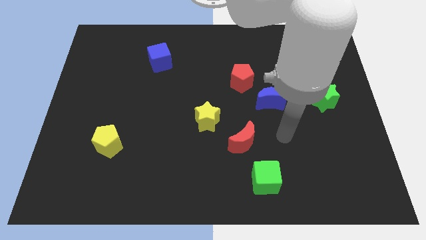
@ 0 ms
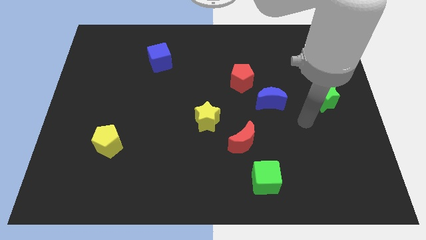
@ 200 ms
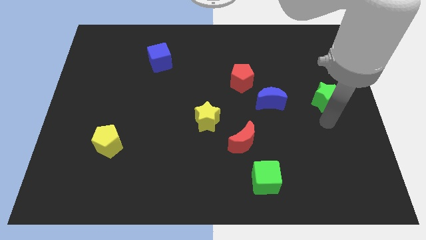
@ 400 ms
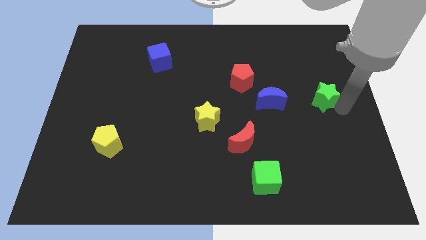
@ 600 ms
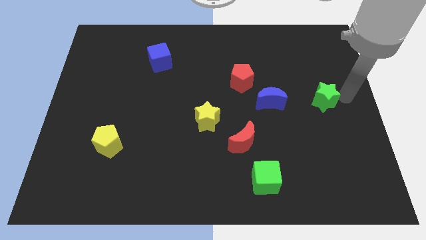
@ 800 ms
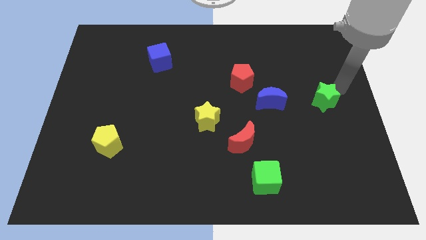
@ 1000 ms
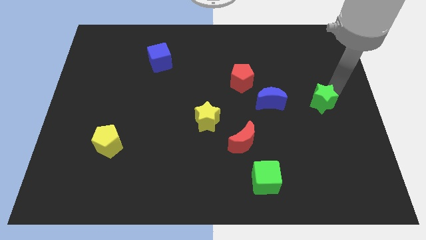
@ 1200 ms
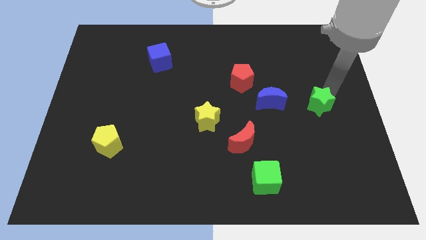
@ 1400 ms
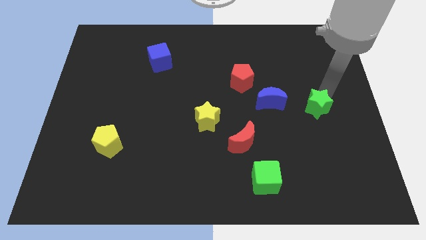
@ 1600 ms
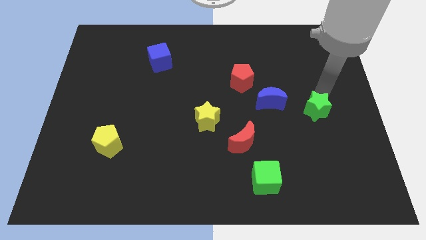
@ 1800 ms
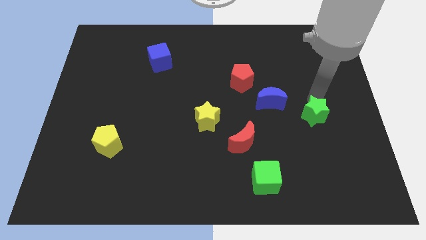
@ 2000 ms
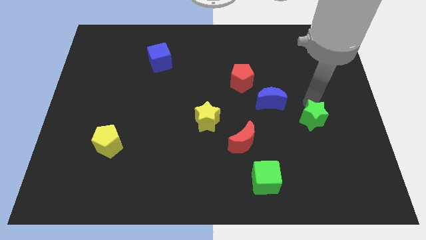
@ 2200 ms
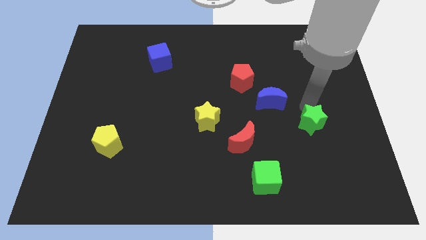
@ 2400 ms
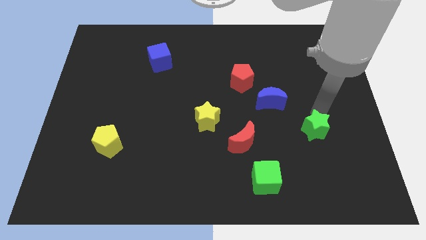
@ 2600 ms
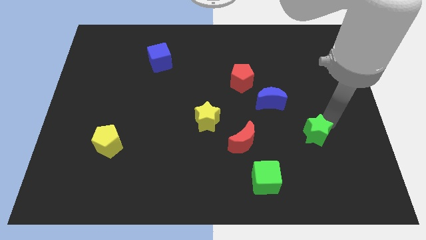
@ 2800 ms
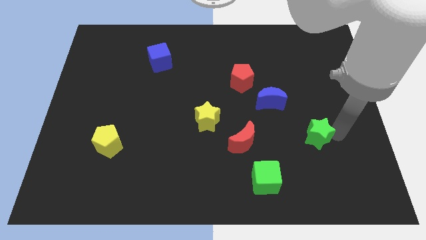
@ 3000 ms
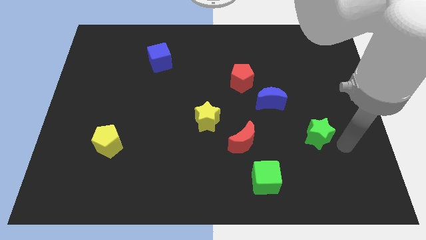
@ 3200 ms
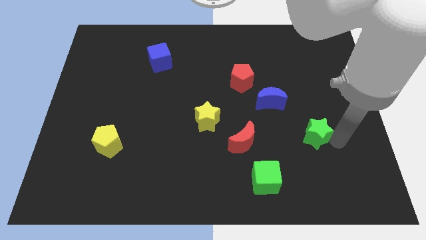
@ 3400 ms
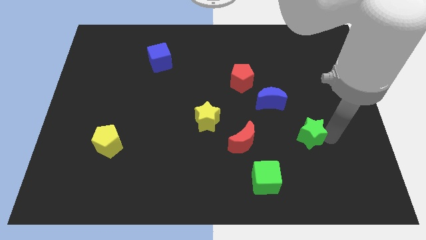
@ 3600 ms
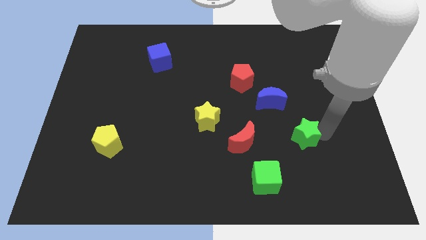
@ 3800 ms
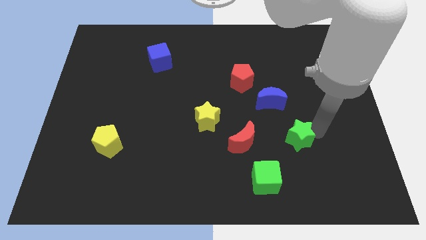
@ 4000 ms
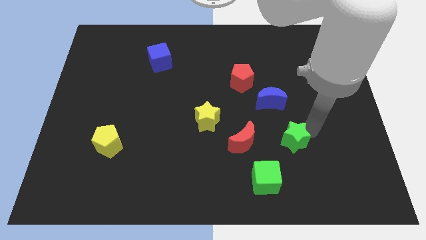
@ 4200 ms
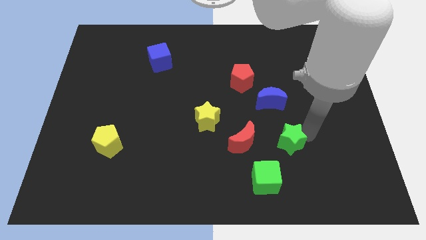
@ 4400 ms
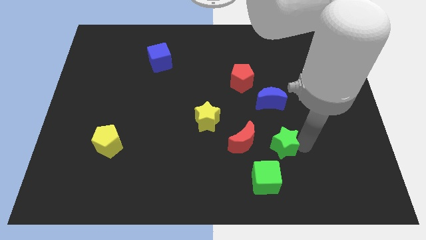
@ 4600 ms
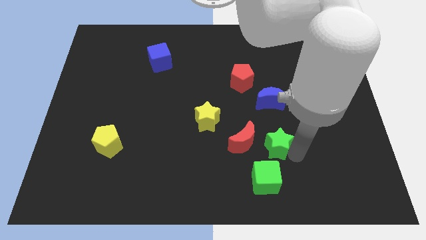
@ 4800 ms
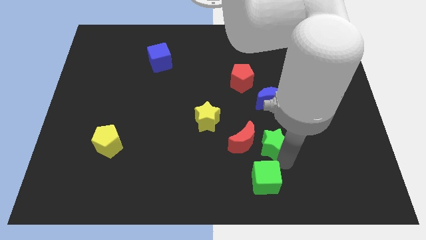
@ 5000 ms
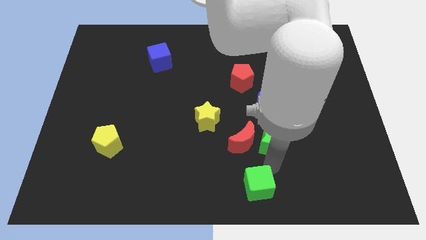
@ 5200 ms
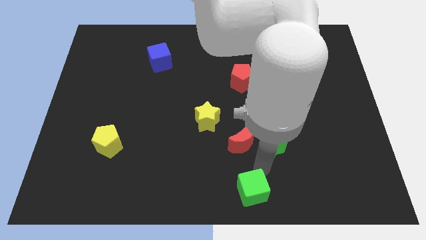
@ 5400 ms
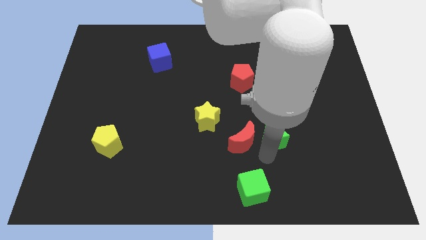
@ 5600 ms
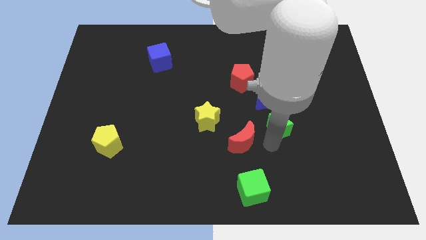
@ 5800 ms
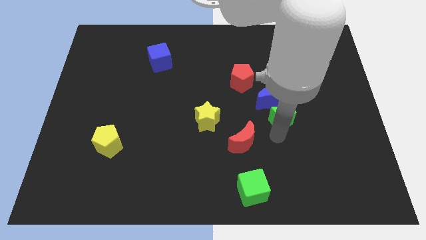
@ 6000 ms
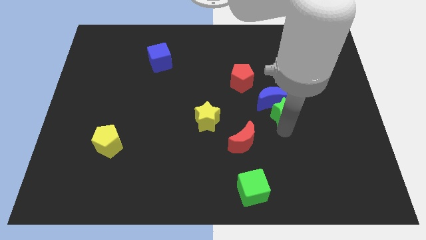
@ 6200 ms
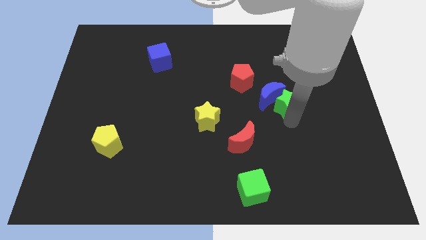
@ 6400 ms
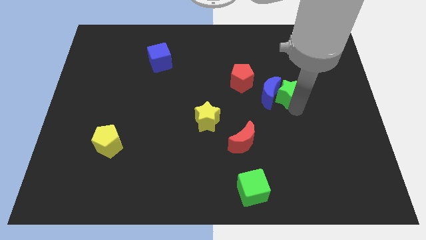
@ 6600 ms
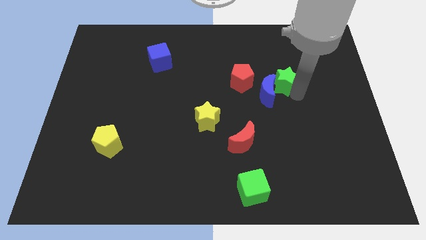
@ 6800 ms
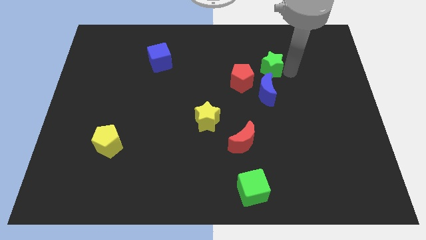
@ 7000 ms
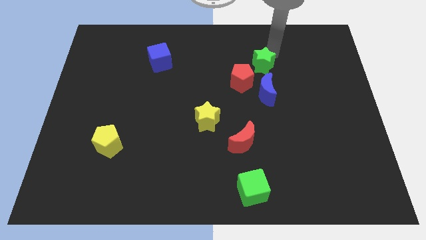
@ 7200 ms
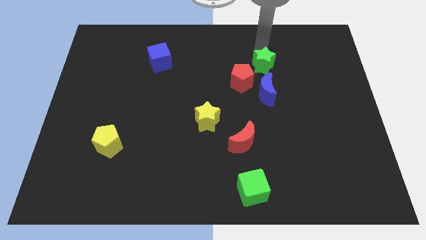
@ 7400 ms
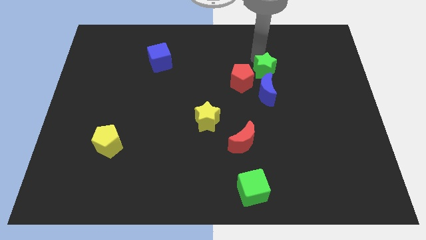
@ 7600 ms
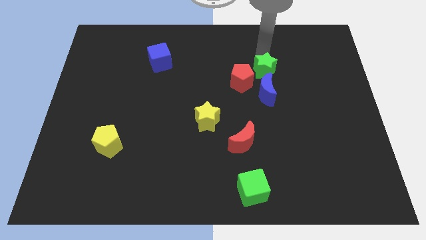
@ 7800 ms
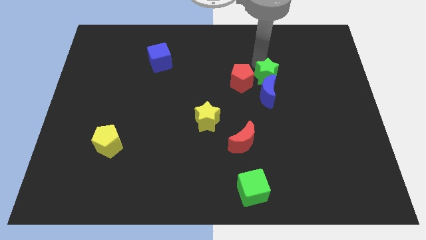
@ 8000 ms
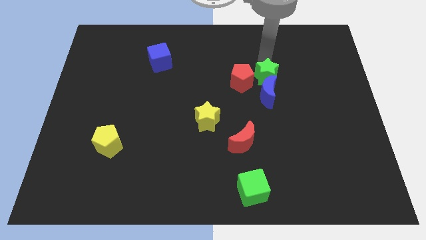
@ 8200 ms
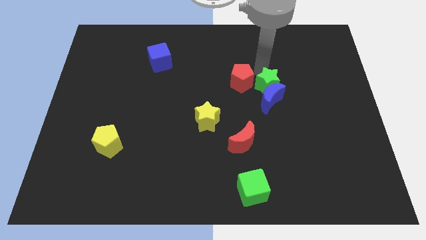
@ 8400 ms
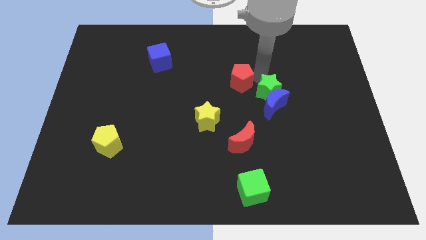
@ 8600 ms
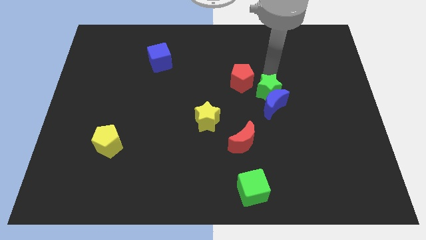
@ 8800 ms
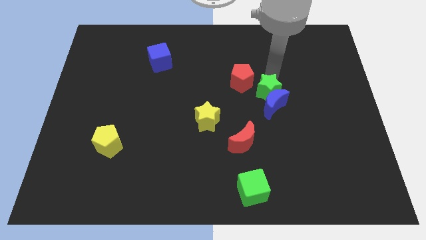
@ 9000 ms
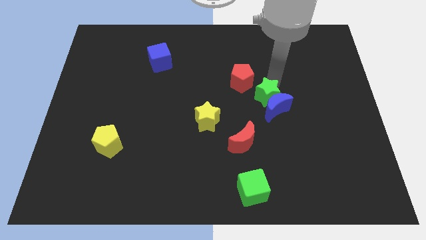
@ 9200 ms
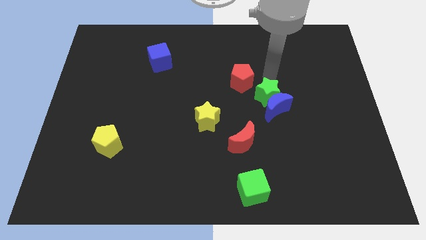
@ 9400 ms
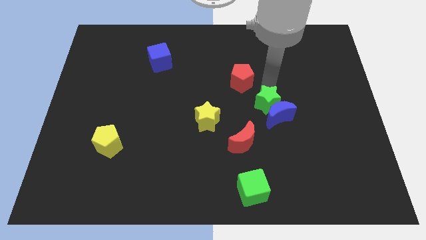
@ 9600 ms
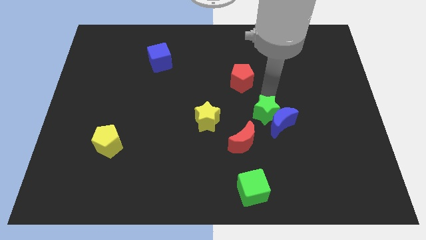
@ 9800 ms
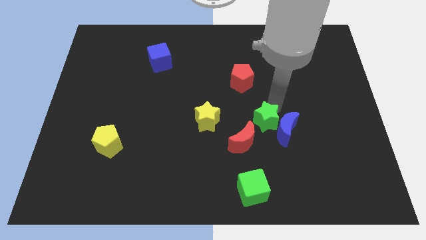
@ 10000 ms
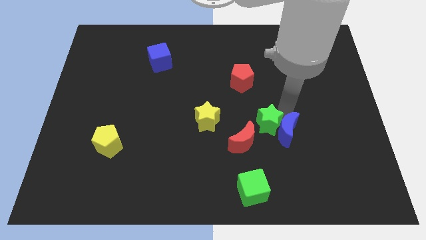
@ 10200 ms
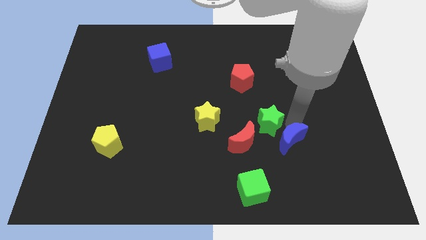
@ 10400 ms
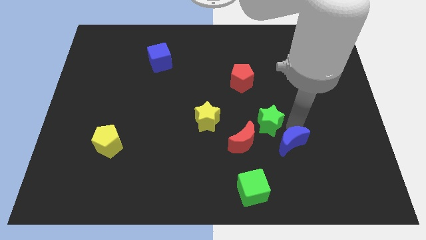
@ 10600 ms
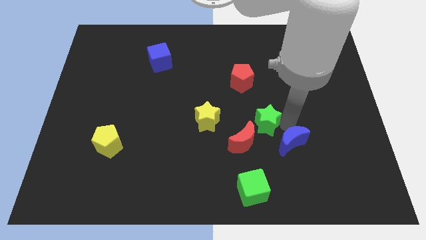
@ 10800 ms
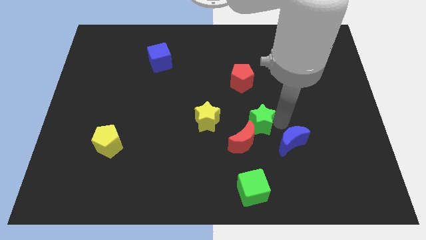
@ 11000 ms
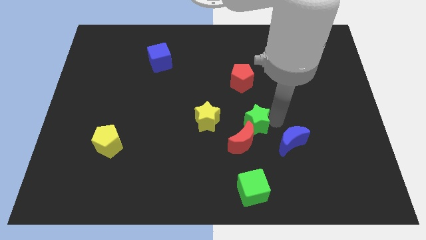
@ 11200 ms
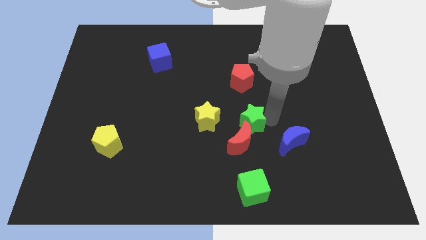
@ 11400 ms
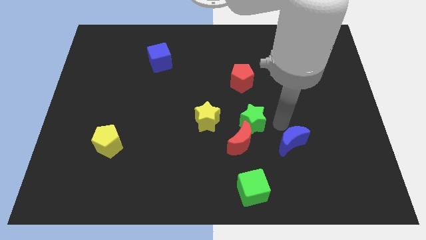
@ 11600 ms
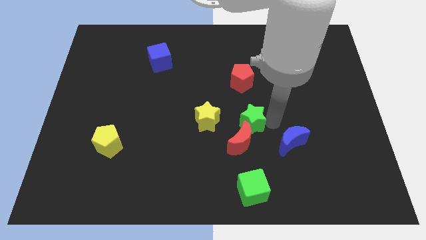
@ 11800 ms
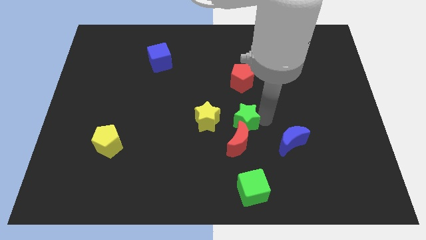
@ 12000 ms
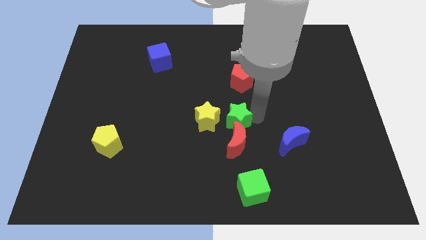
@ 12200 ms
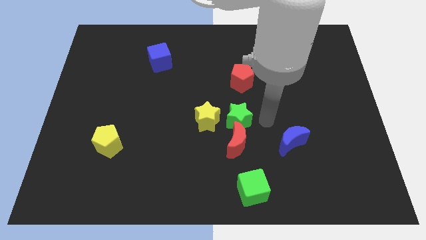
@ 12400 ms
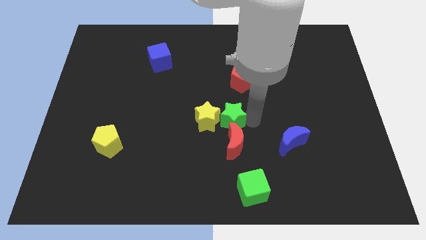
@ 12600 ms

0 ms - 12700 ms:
slide the green star close to the yellow star

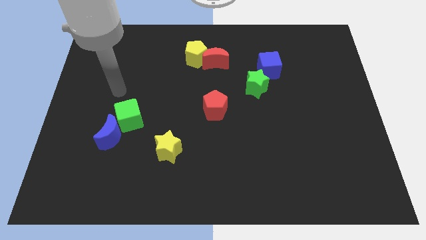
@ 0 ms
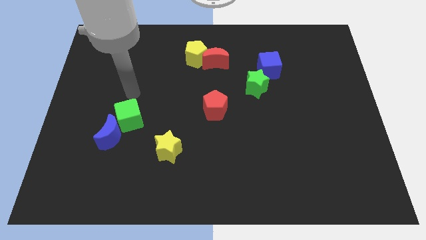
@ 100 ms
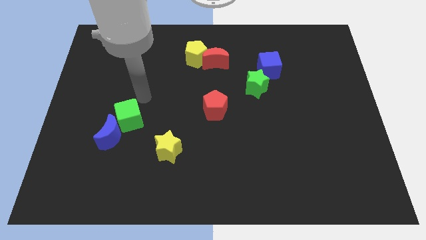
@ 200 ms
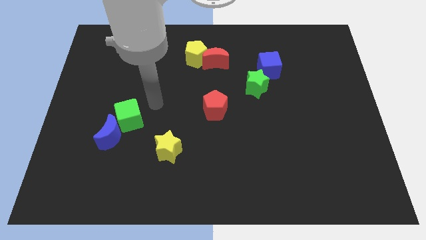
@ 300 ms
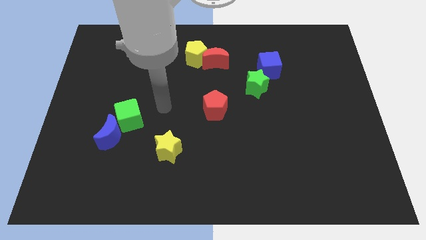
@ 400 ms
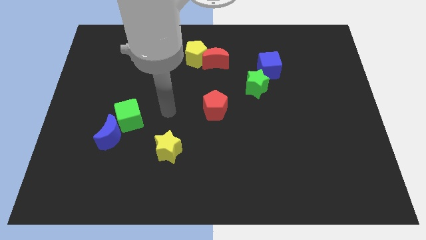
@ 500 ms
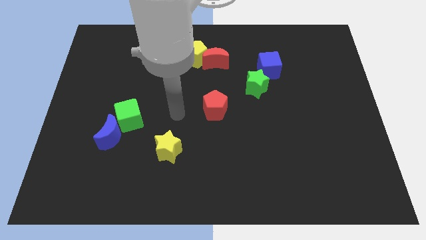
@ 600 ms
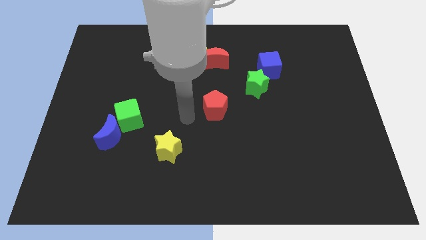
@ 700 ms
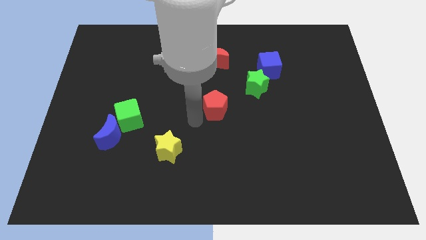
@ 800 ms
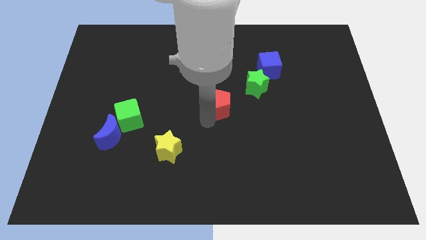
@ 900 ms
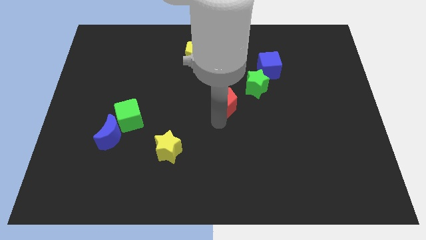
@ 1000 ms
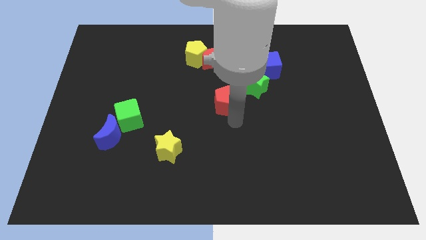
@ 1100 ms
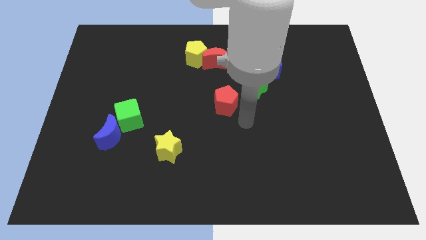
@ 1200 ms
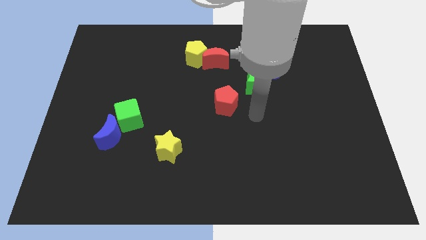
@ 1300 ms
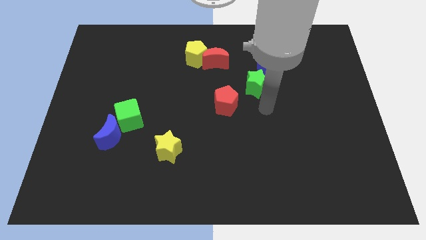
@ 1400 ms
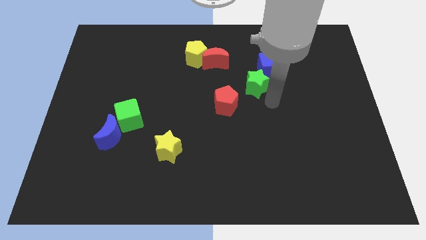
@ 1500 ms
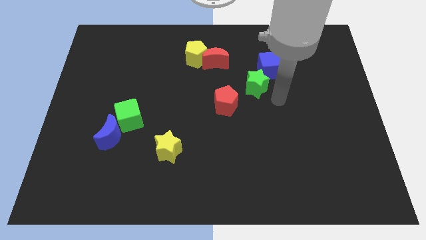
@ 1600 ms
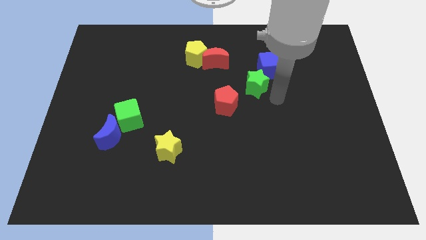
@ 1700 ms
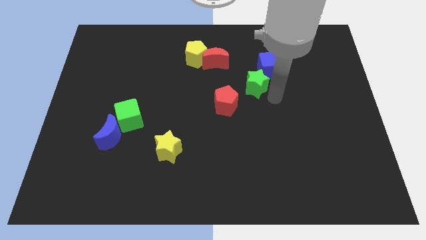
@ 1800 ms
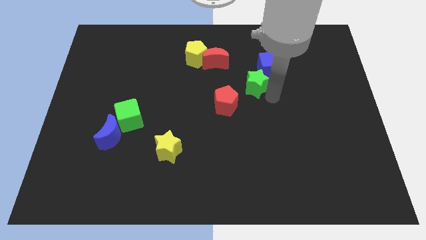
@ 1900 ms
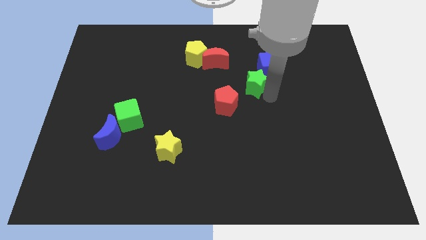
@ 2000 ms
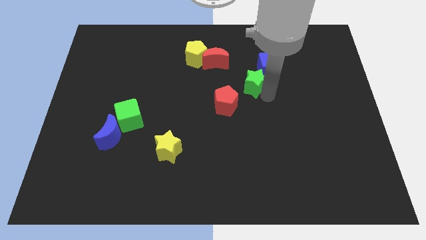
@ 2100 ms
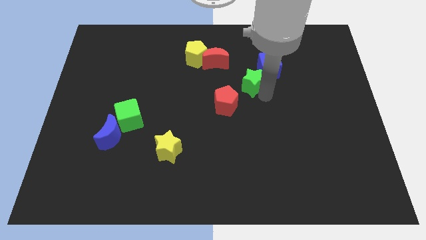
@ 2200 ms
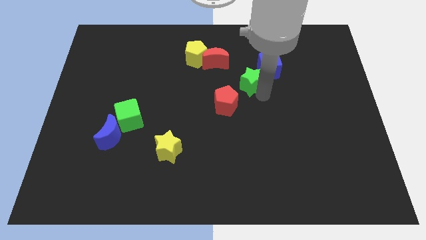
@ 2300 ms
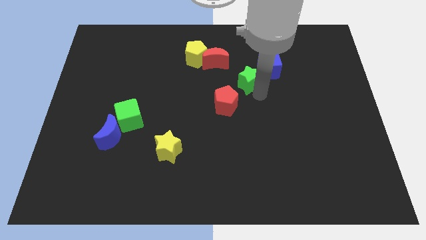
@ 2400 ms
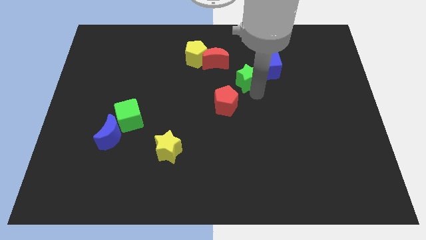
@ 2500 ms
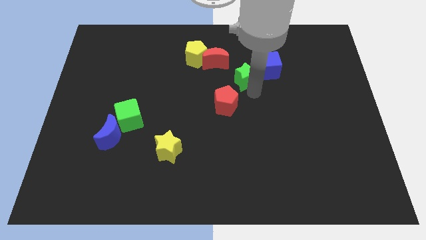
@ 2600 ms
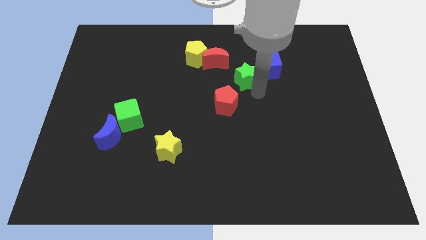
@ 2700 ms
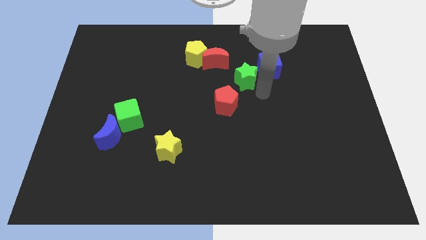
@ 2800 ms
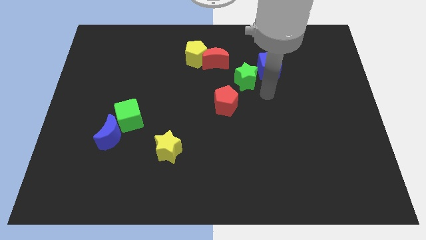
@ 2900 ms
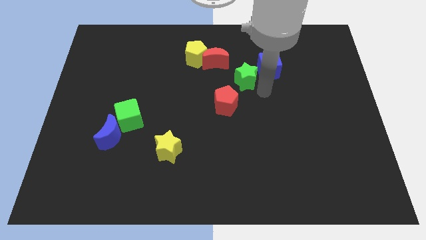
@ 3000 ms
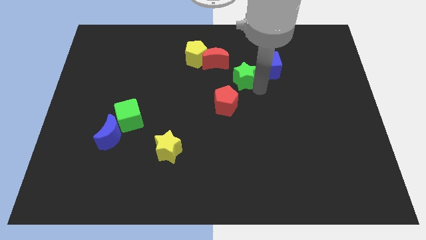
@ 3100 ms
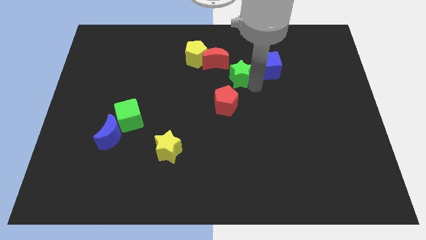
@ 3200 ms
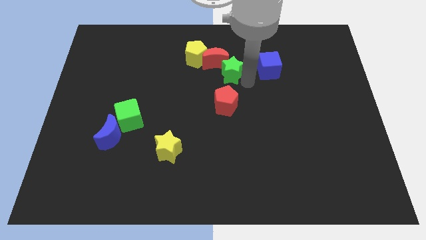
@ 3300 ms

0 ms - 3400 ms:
put the green star close to the red moon
